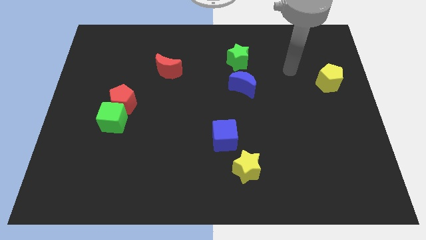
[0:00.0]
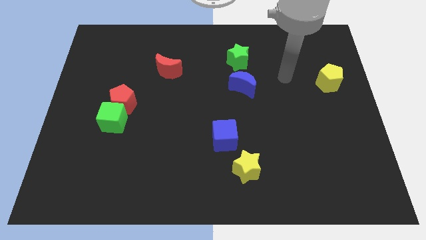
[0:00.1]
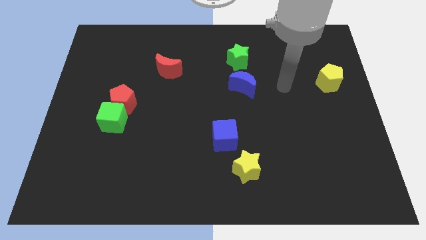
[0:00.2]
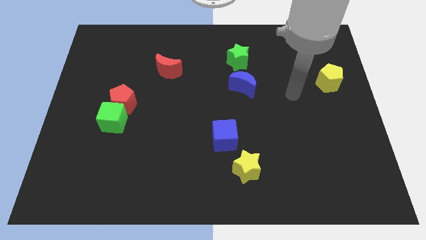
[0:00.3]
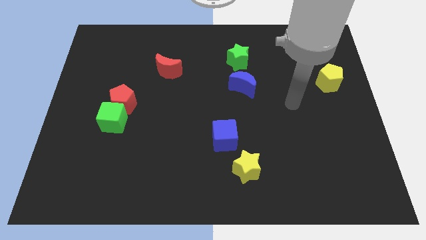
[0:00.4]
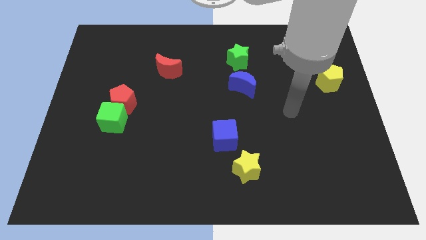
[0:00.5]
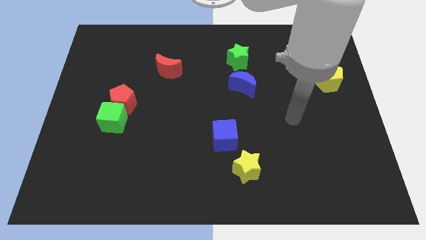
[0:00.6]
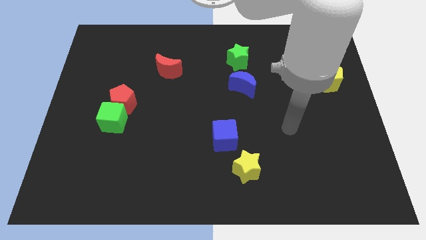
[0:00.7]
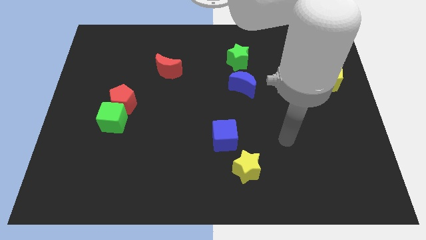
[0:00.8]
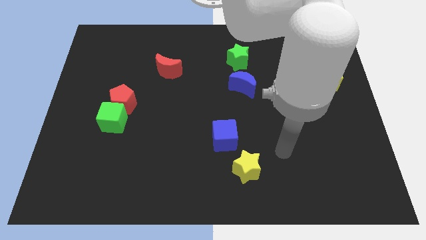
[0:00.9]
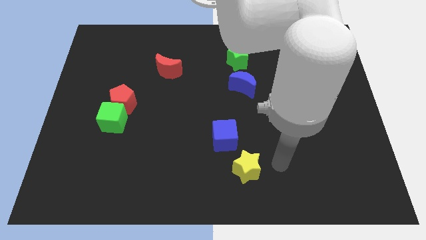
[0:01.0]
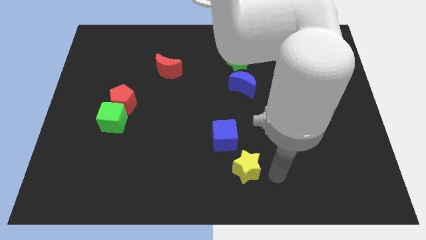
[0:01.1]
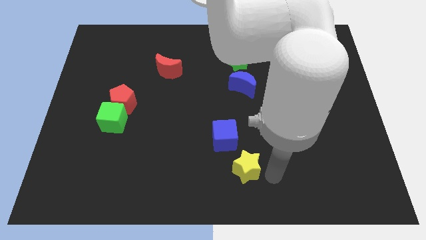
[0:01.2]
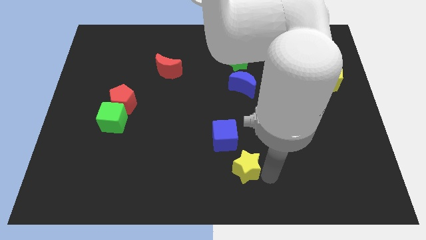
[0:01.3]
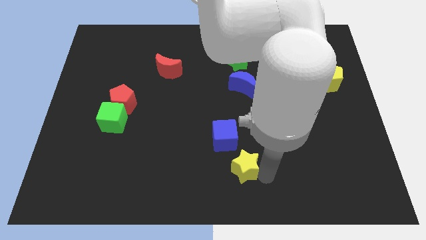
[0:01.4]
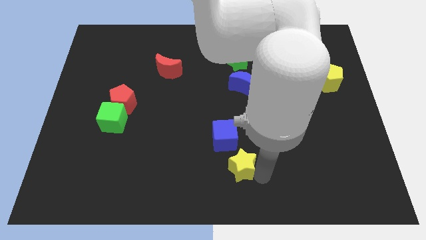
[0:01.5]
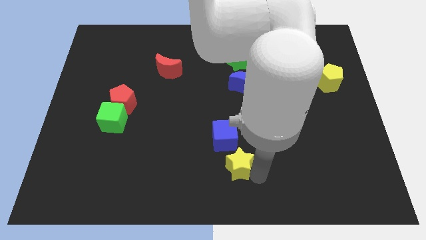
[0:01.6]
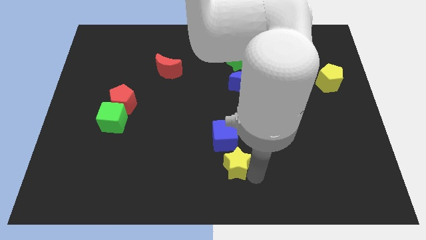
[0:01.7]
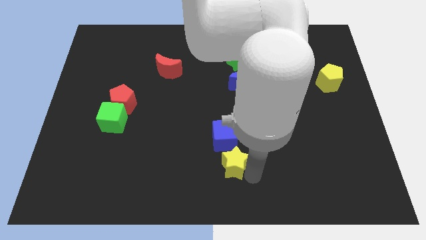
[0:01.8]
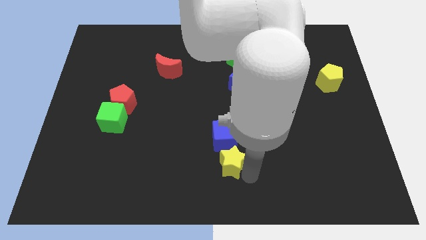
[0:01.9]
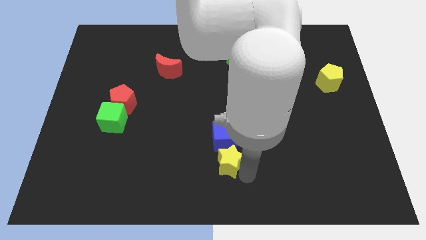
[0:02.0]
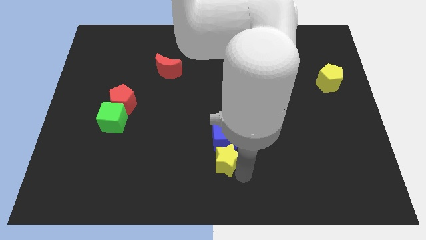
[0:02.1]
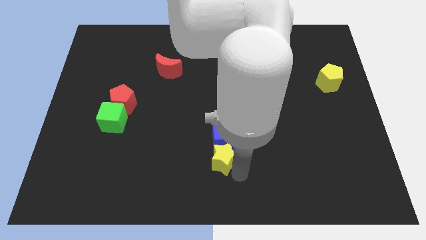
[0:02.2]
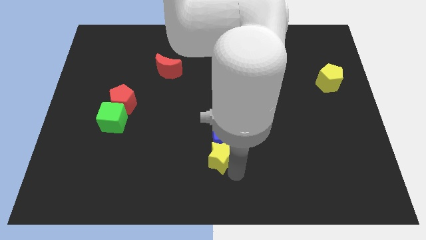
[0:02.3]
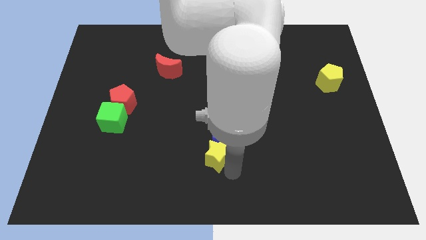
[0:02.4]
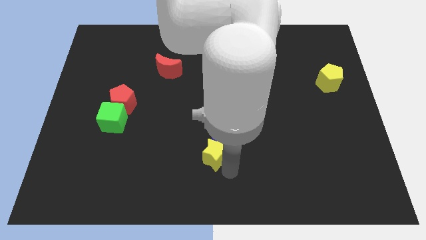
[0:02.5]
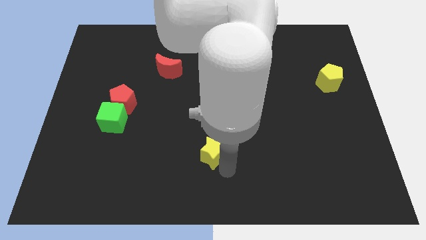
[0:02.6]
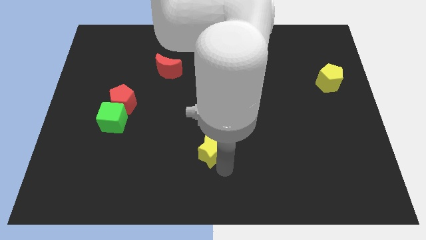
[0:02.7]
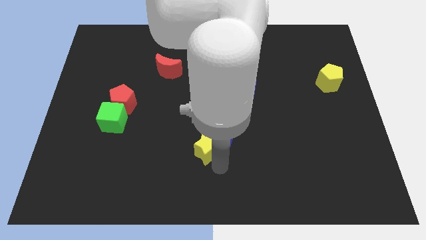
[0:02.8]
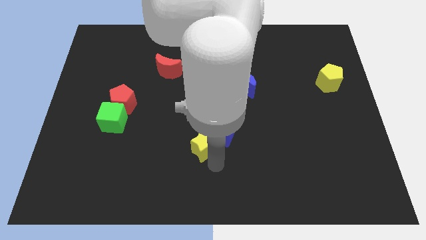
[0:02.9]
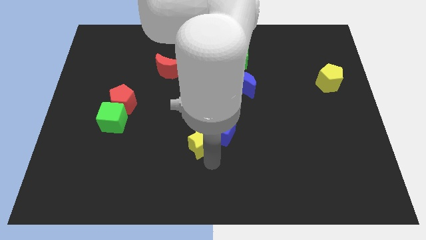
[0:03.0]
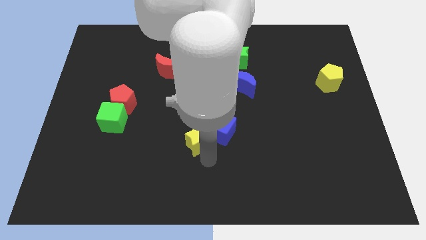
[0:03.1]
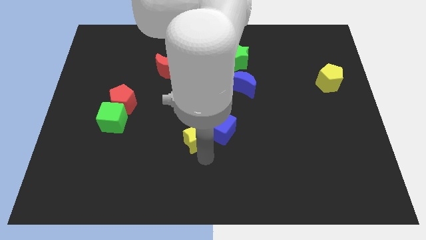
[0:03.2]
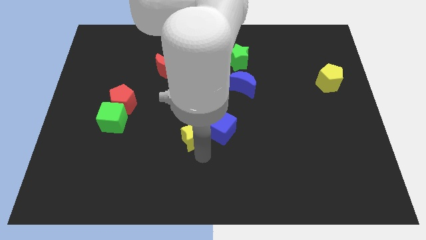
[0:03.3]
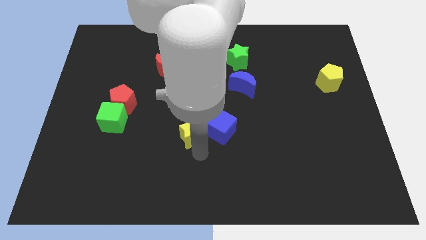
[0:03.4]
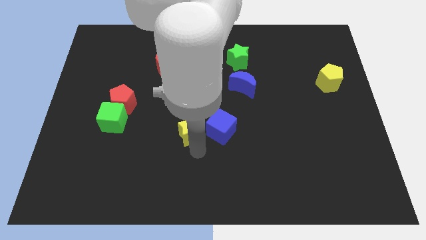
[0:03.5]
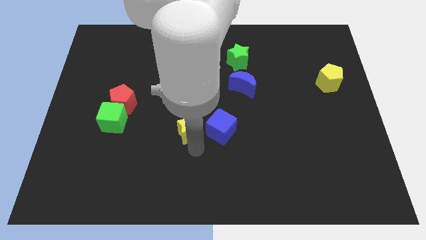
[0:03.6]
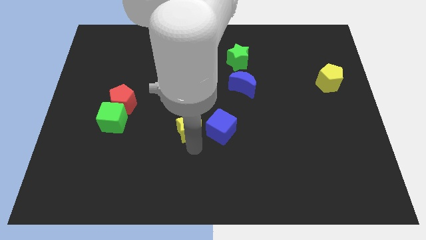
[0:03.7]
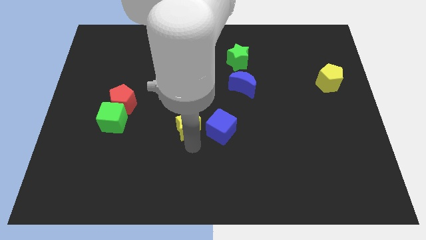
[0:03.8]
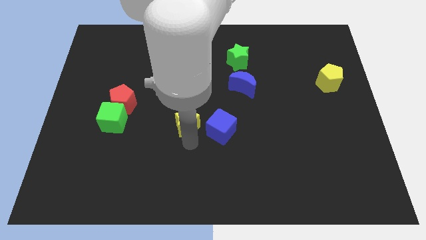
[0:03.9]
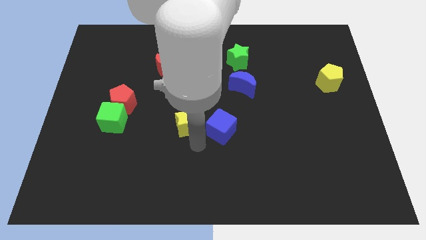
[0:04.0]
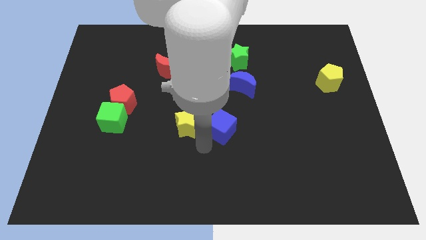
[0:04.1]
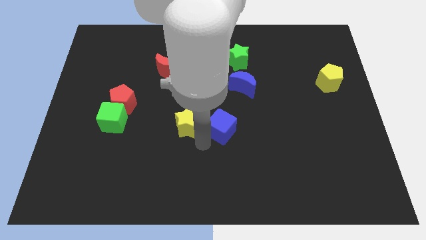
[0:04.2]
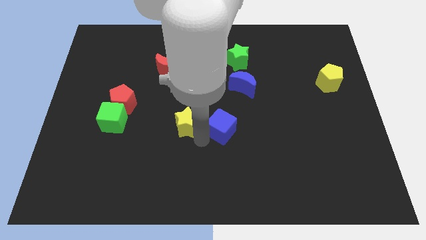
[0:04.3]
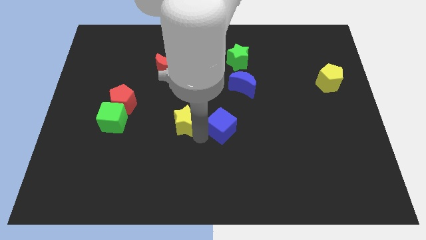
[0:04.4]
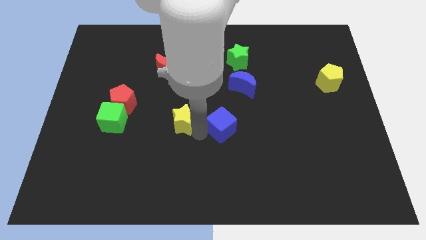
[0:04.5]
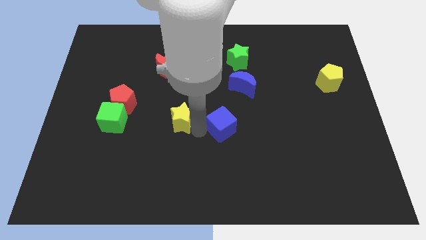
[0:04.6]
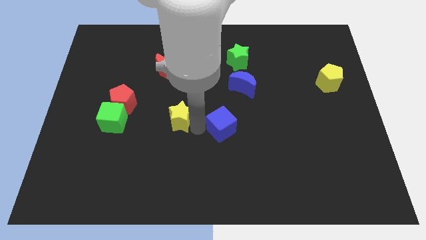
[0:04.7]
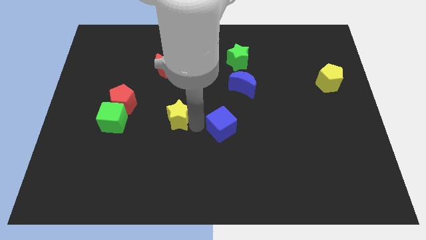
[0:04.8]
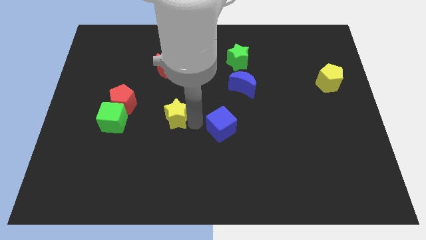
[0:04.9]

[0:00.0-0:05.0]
push the yellow star diagonally up and left

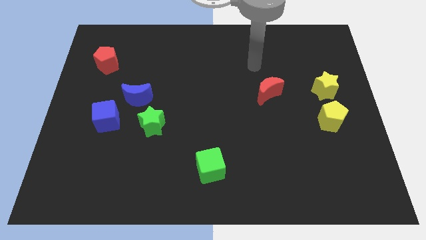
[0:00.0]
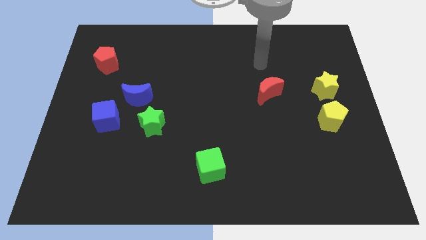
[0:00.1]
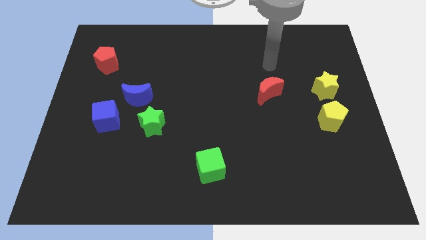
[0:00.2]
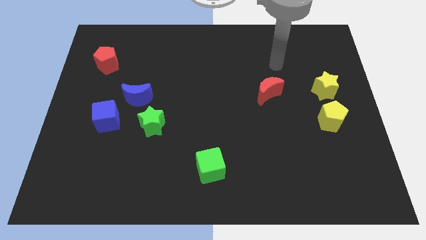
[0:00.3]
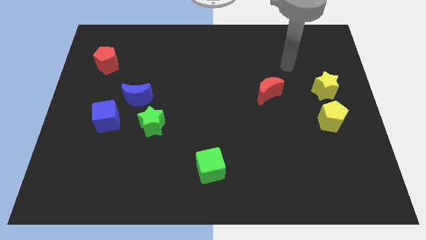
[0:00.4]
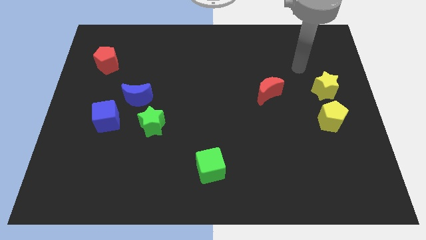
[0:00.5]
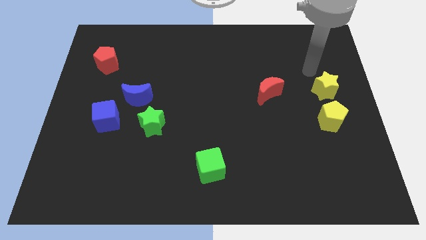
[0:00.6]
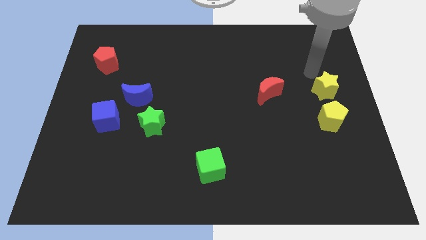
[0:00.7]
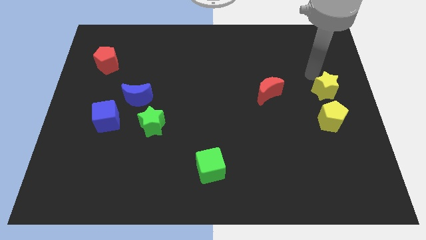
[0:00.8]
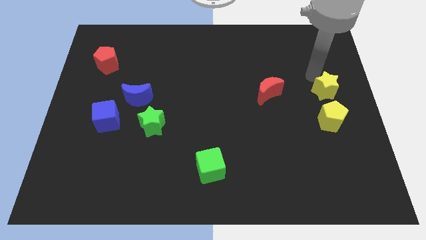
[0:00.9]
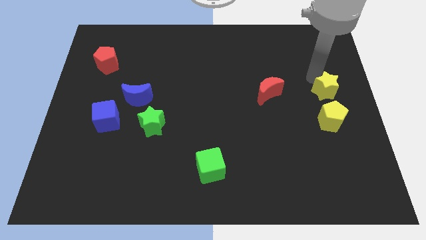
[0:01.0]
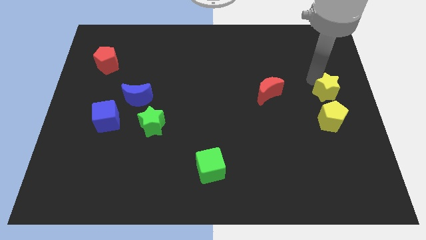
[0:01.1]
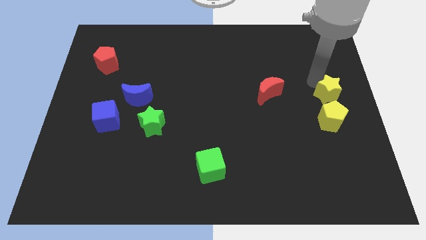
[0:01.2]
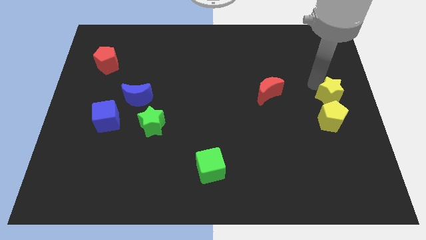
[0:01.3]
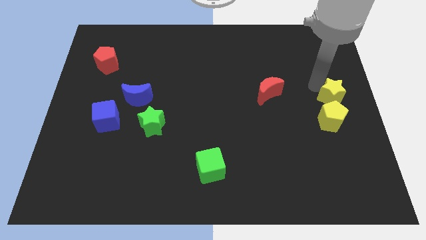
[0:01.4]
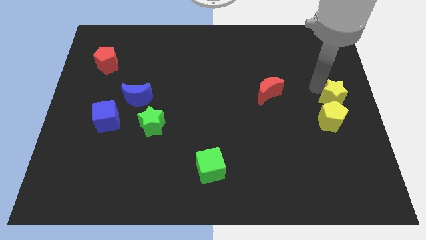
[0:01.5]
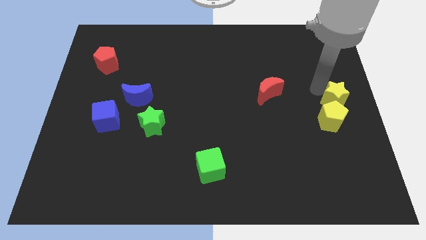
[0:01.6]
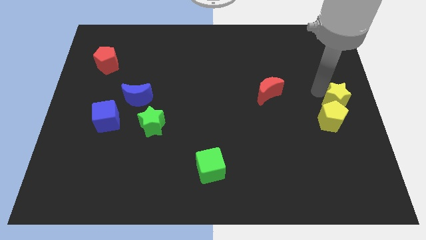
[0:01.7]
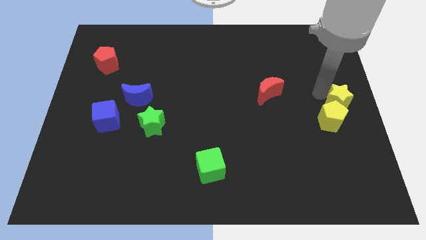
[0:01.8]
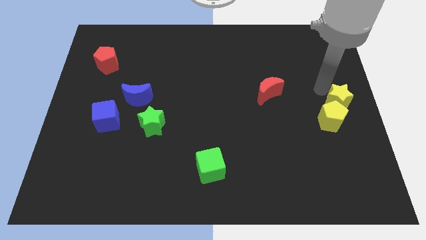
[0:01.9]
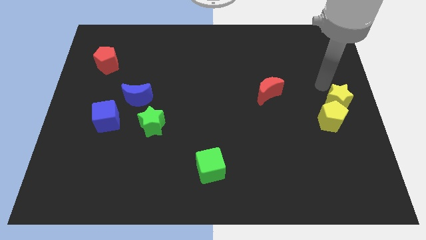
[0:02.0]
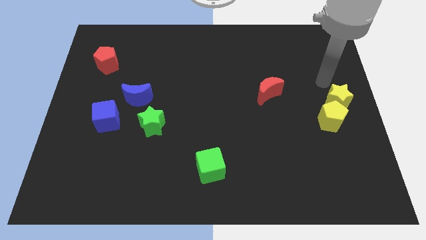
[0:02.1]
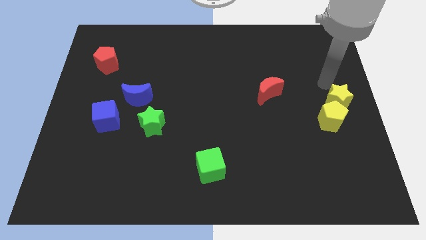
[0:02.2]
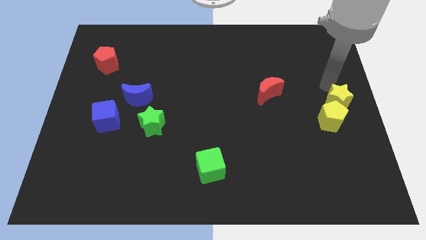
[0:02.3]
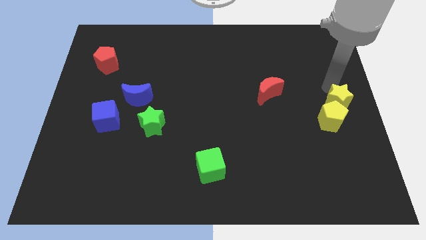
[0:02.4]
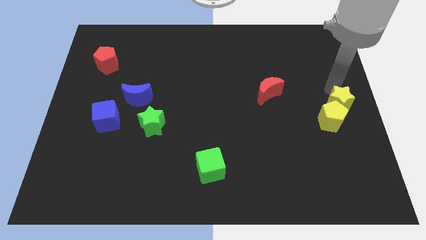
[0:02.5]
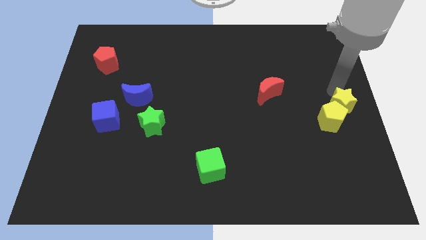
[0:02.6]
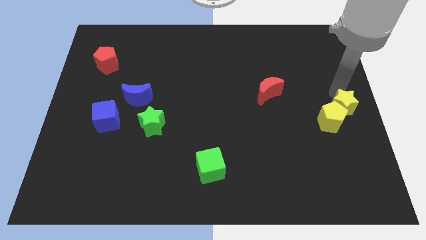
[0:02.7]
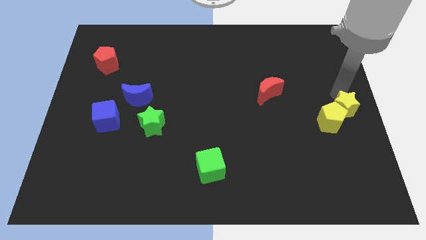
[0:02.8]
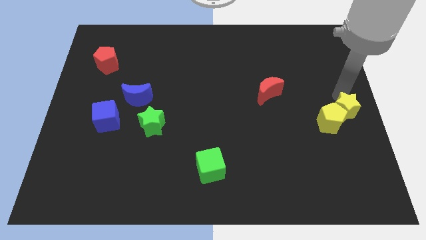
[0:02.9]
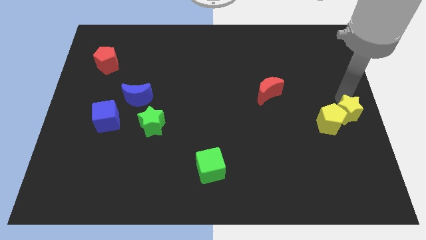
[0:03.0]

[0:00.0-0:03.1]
push the yellow star downwards slightly
